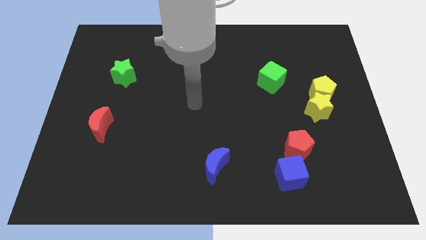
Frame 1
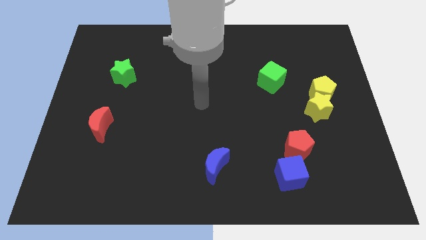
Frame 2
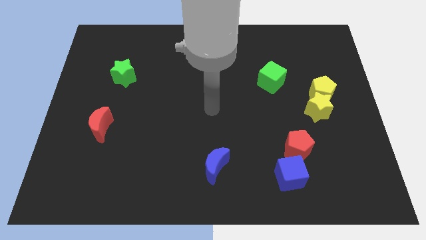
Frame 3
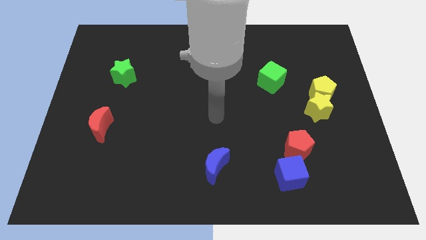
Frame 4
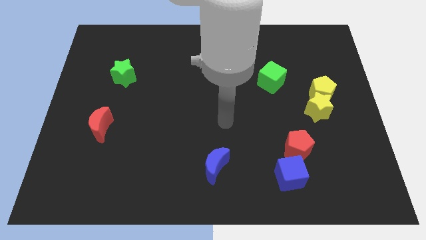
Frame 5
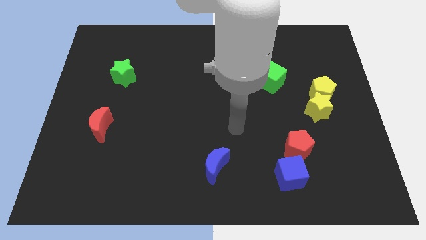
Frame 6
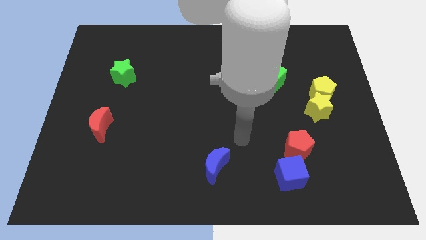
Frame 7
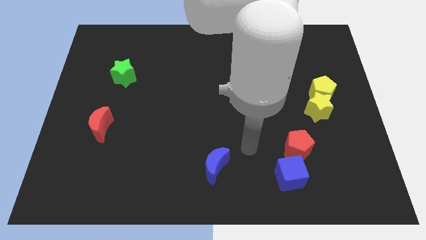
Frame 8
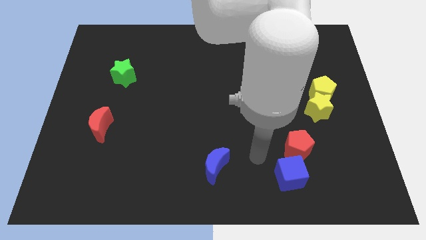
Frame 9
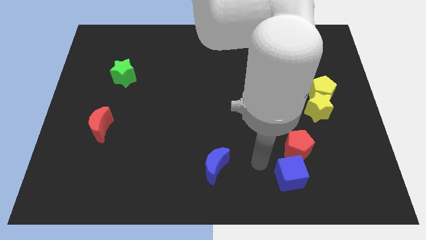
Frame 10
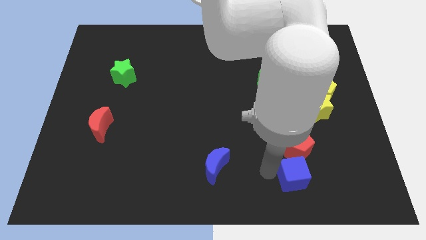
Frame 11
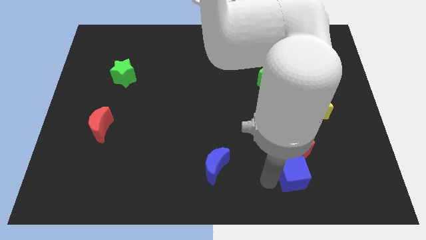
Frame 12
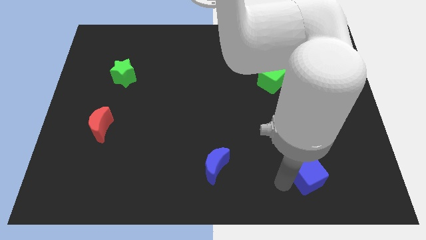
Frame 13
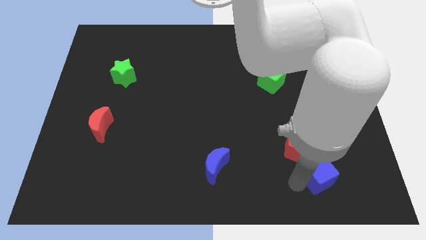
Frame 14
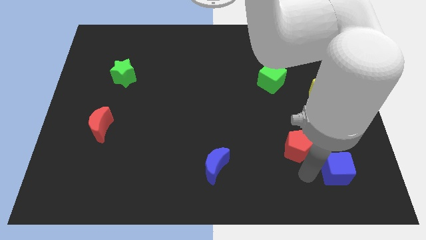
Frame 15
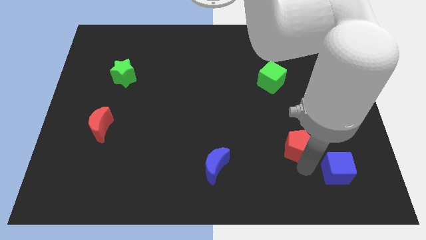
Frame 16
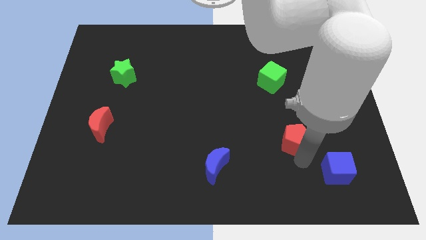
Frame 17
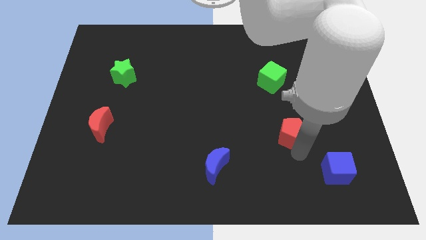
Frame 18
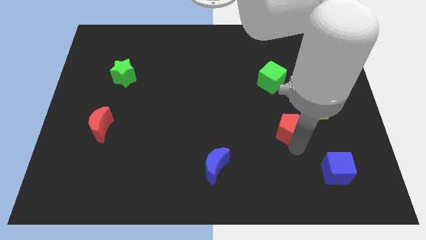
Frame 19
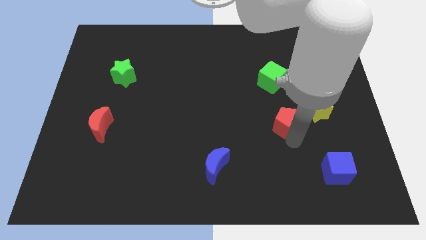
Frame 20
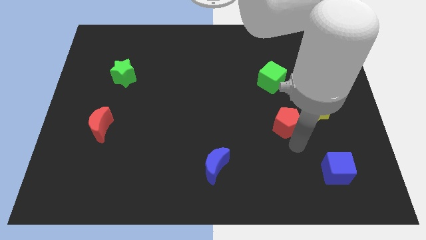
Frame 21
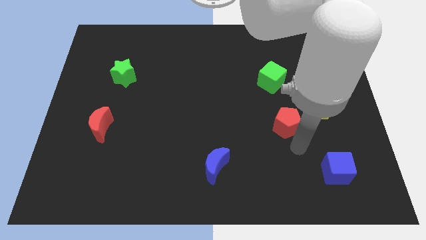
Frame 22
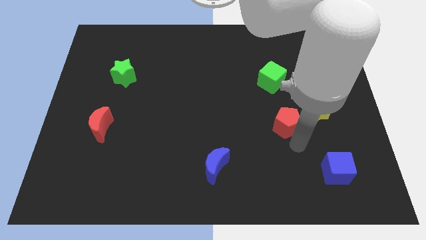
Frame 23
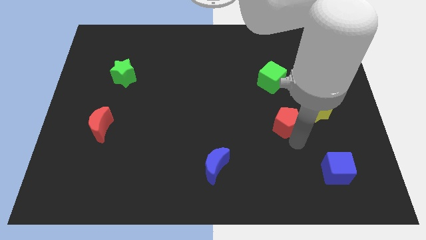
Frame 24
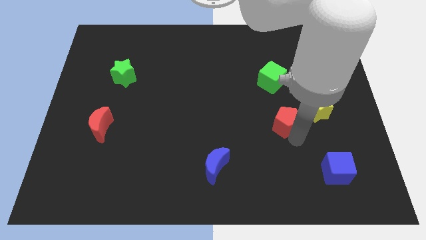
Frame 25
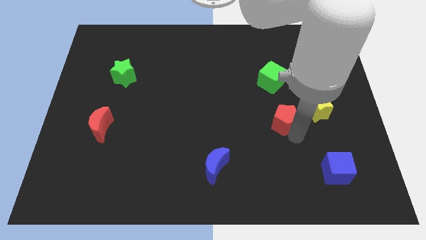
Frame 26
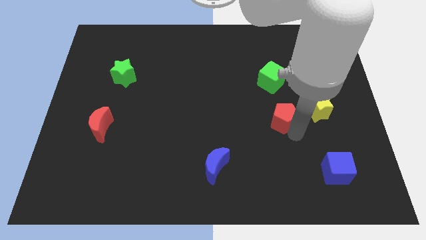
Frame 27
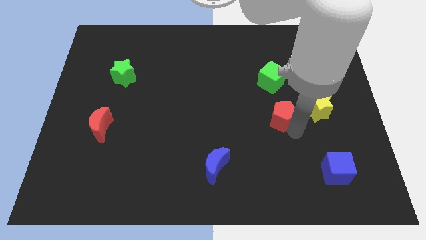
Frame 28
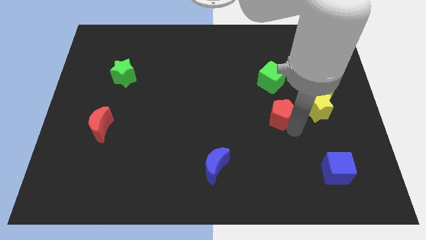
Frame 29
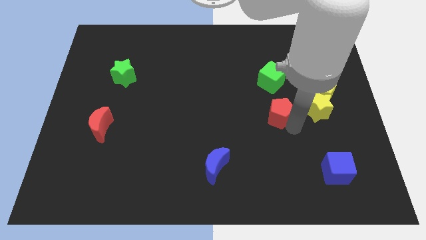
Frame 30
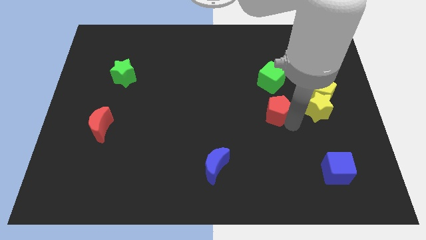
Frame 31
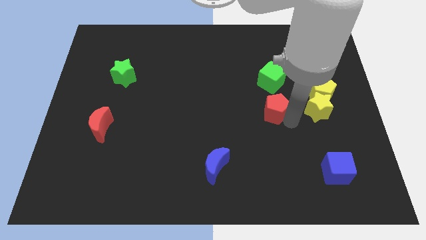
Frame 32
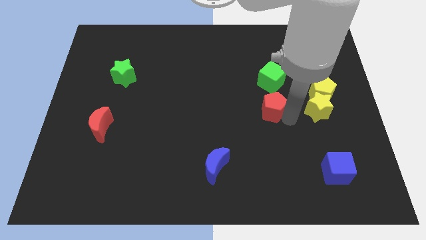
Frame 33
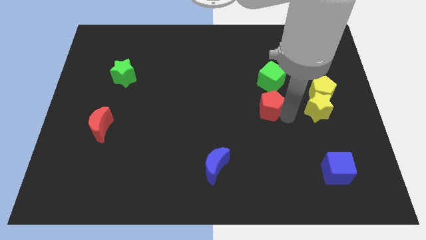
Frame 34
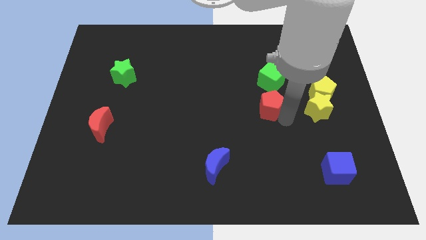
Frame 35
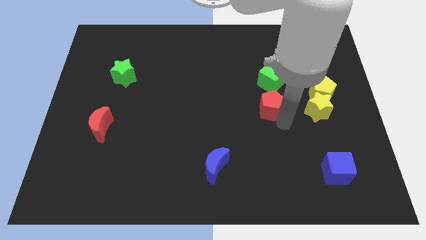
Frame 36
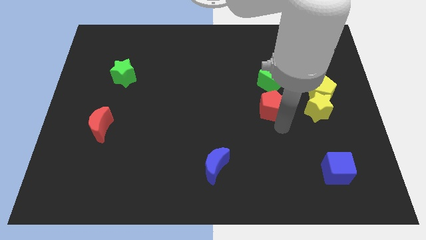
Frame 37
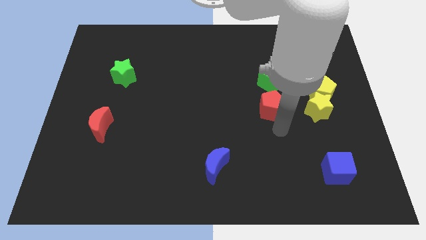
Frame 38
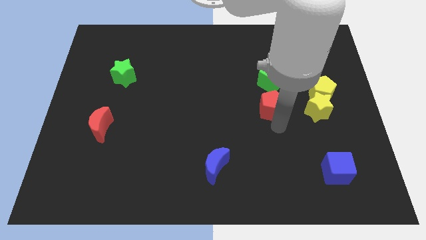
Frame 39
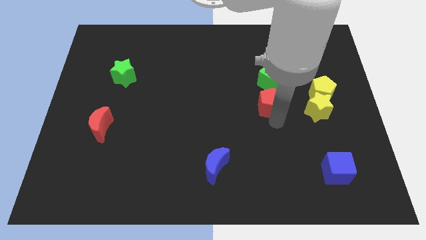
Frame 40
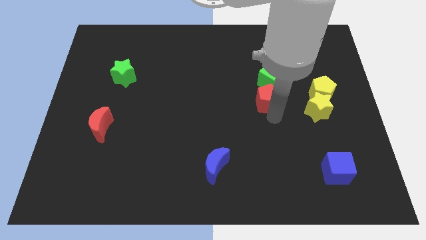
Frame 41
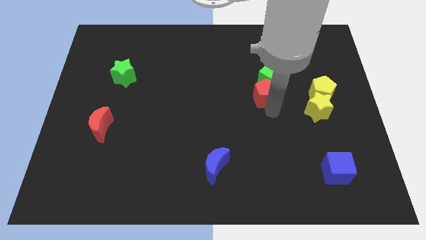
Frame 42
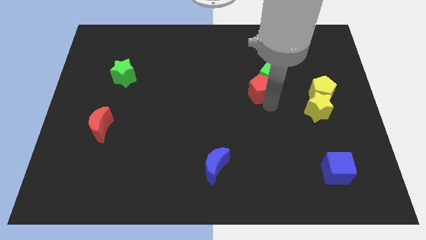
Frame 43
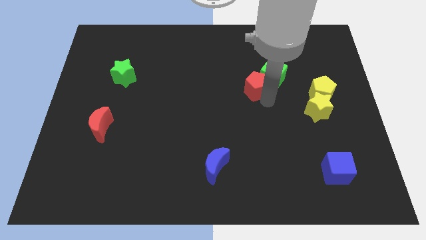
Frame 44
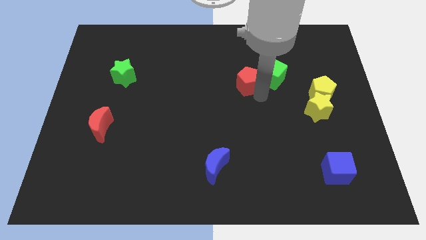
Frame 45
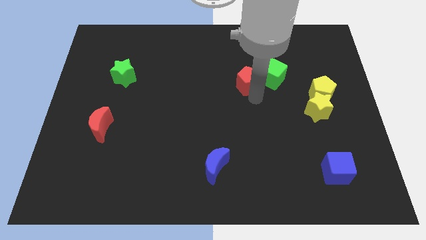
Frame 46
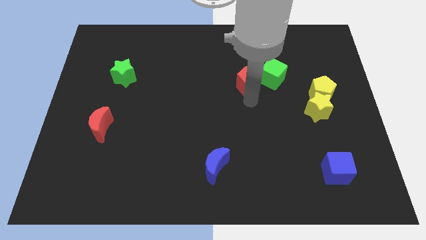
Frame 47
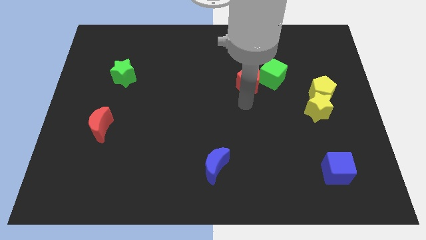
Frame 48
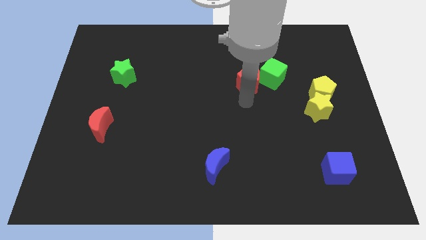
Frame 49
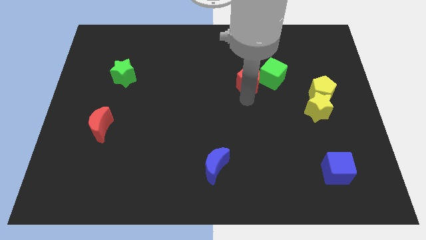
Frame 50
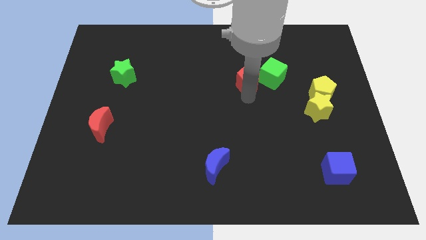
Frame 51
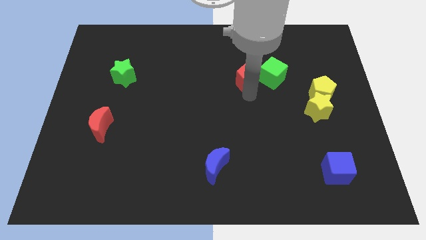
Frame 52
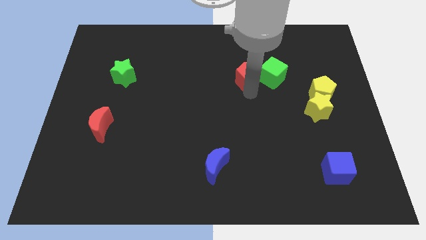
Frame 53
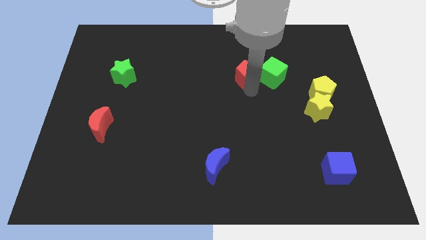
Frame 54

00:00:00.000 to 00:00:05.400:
move the red pentagon diagonally up and to the left of the green cube

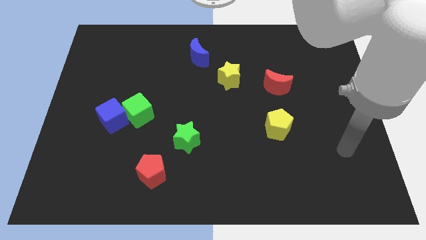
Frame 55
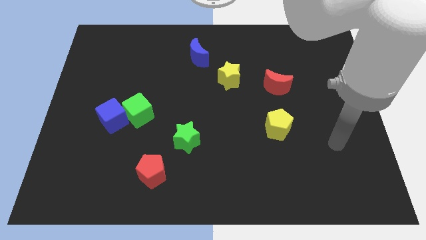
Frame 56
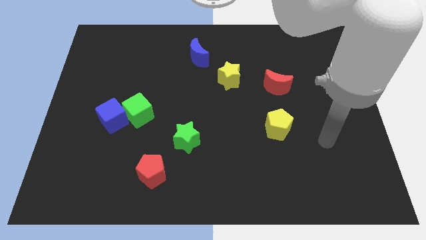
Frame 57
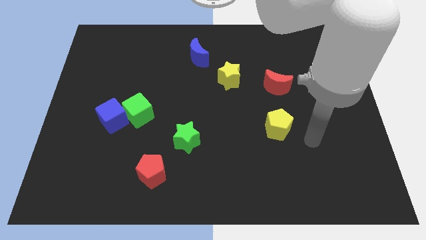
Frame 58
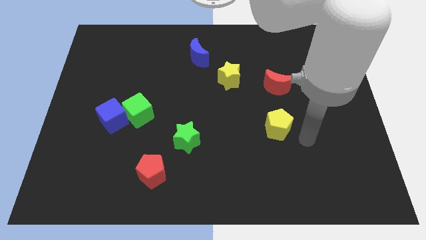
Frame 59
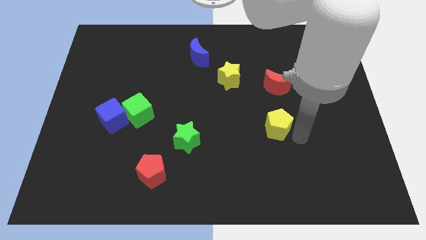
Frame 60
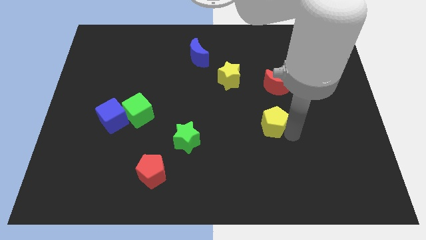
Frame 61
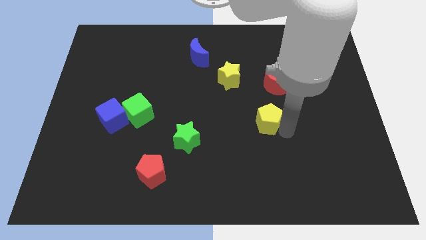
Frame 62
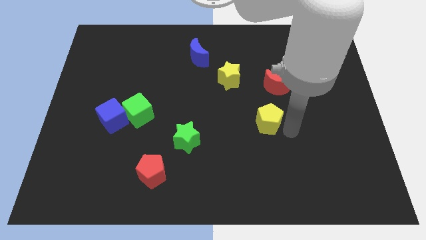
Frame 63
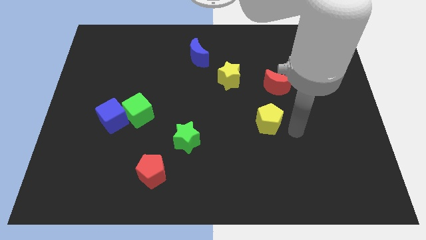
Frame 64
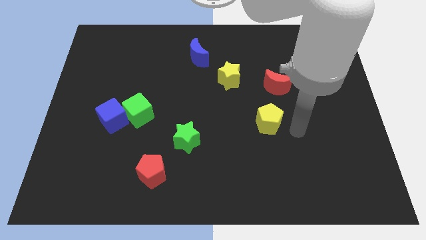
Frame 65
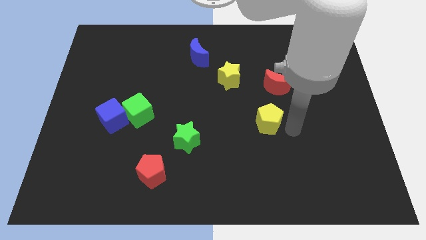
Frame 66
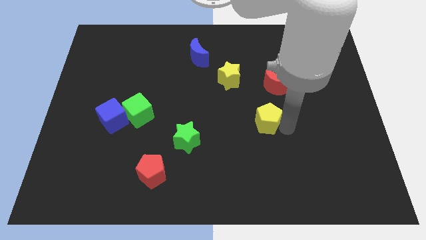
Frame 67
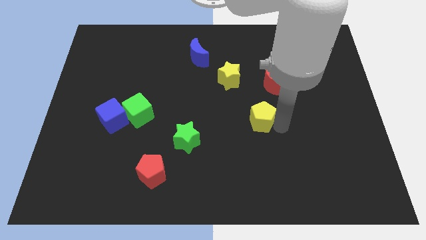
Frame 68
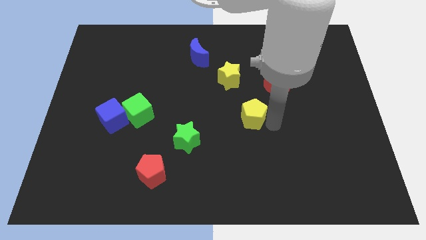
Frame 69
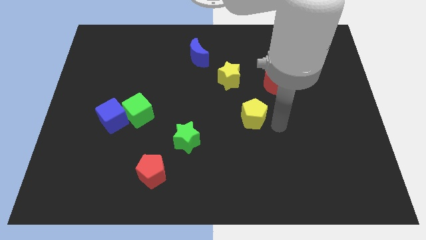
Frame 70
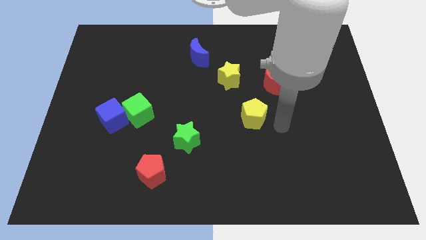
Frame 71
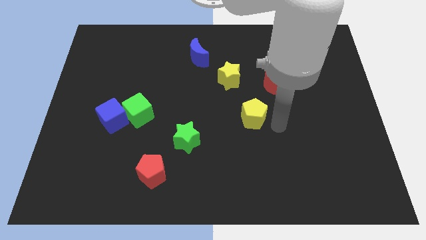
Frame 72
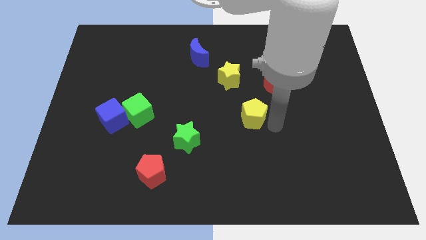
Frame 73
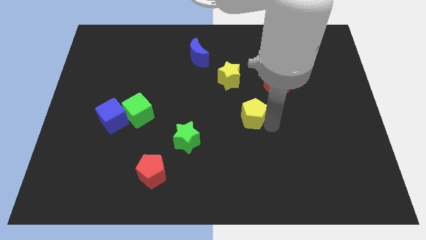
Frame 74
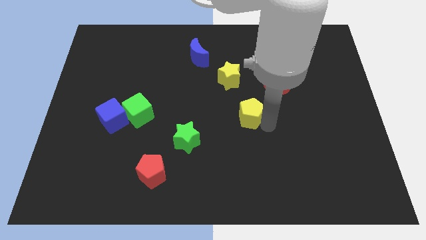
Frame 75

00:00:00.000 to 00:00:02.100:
move the yellow pentagon to the bottom of the yellow star
